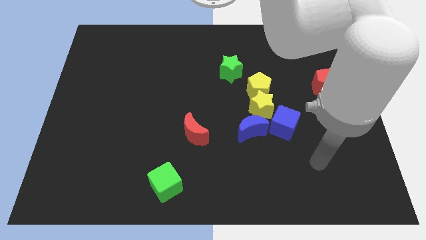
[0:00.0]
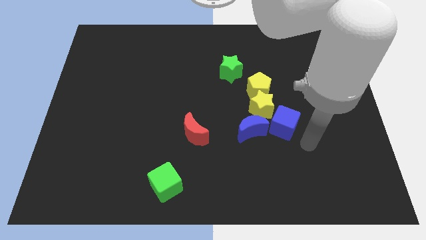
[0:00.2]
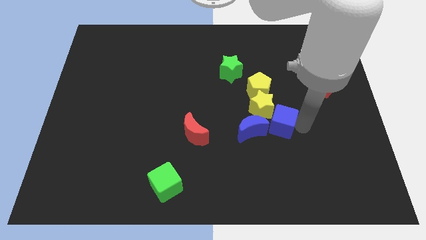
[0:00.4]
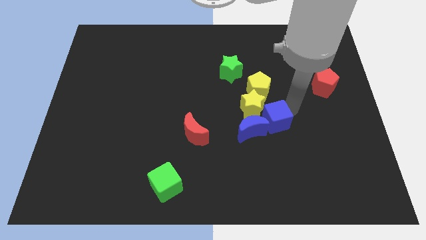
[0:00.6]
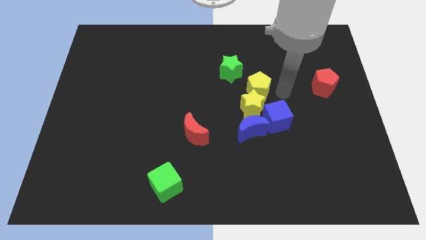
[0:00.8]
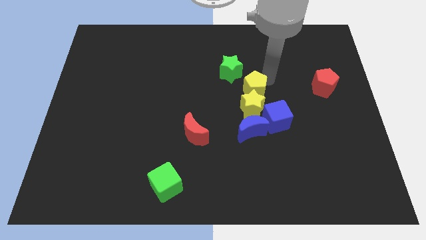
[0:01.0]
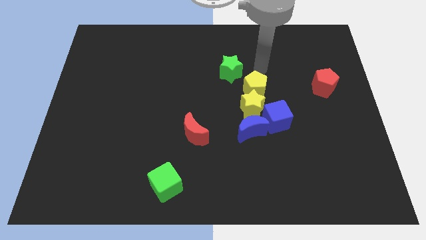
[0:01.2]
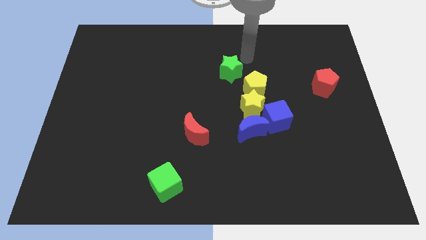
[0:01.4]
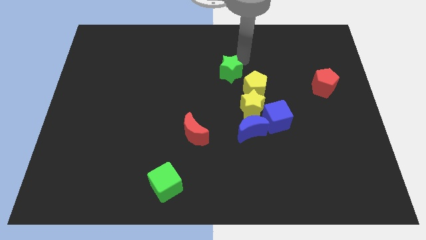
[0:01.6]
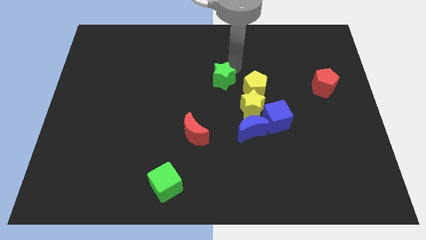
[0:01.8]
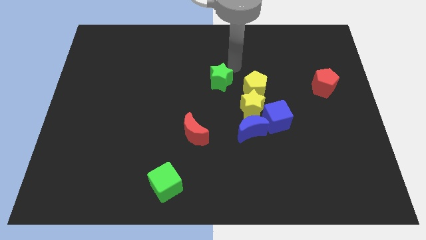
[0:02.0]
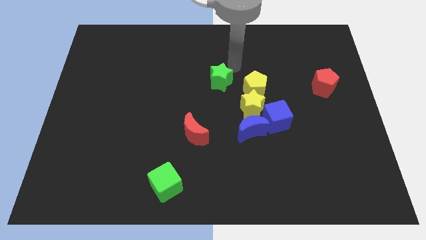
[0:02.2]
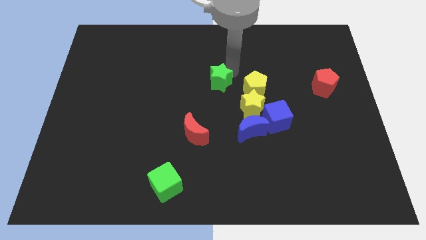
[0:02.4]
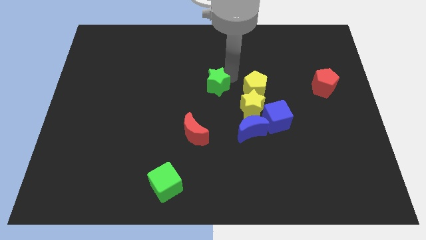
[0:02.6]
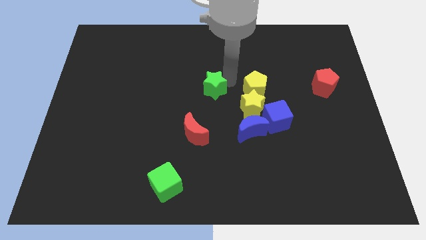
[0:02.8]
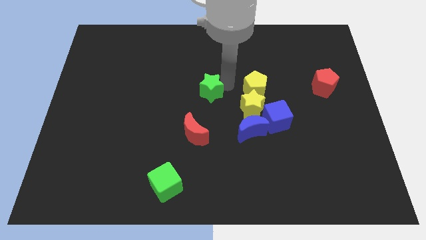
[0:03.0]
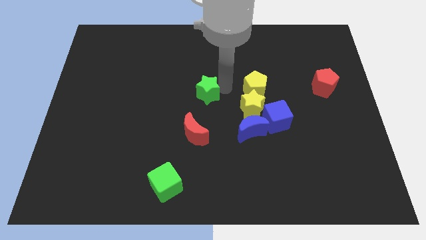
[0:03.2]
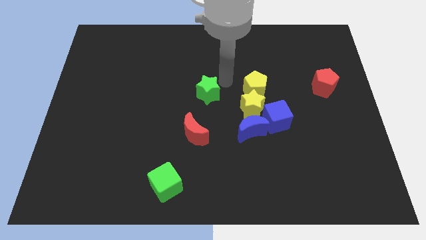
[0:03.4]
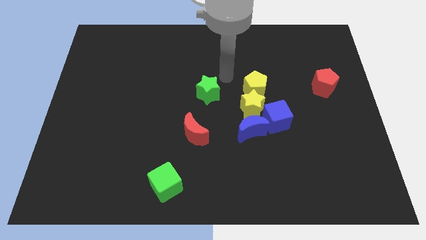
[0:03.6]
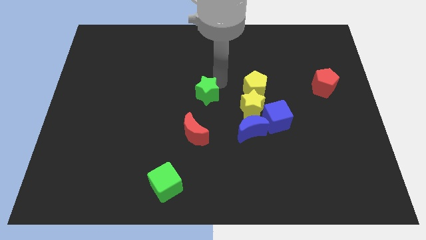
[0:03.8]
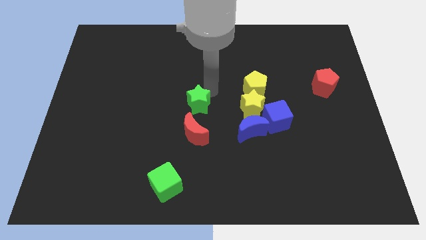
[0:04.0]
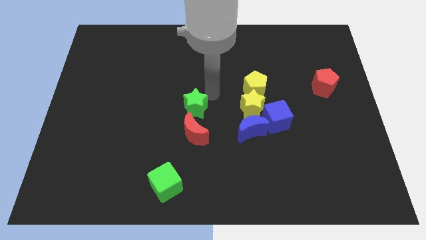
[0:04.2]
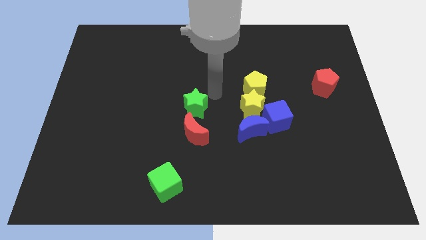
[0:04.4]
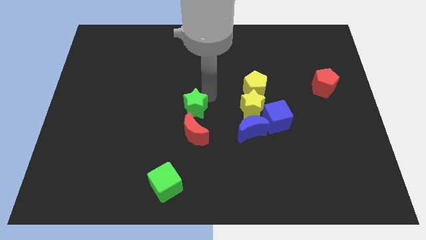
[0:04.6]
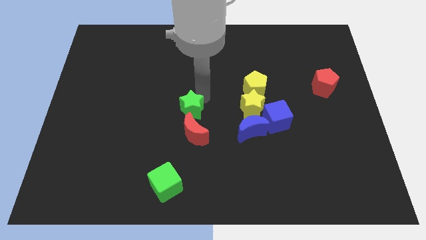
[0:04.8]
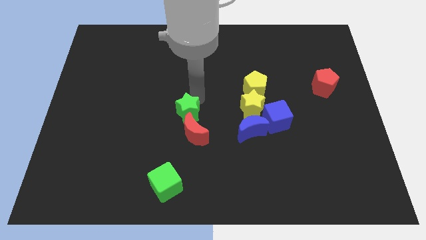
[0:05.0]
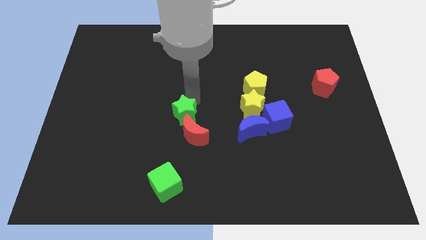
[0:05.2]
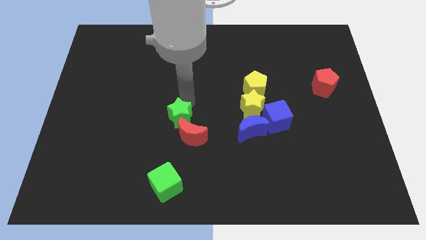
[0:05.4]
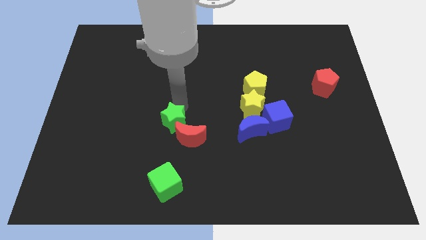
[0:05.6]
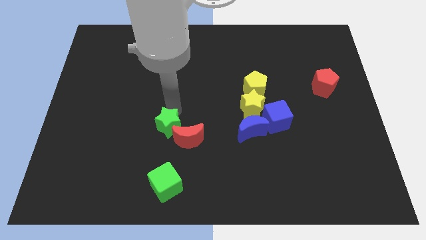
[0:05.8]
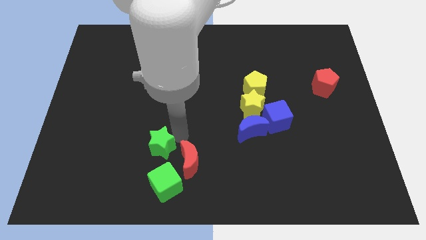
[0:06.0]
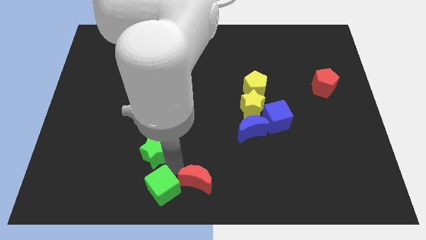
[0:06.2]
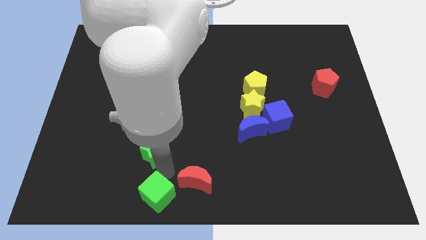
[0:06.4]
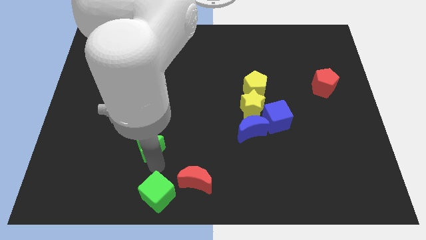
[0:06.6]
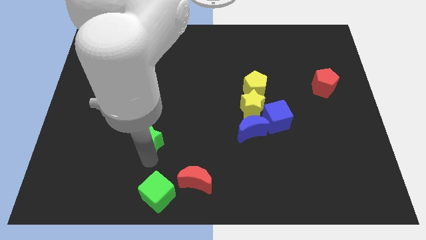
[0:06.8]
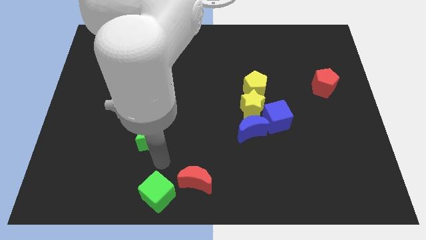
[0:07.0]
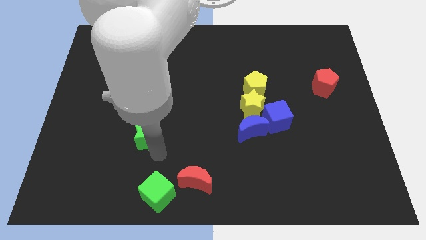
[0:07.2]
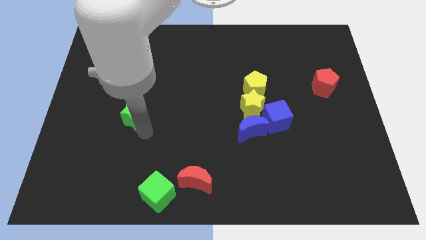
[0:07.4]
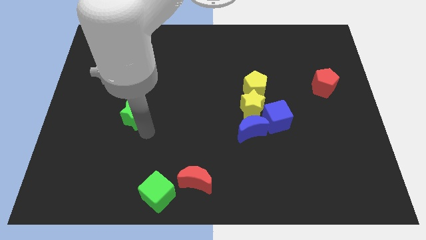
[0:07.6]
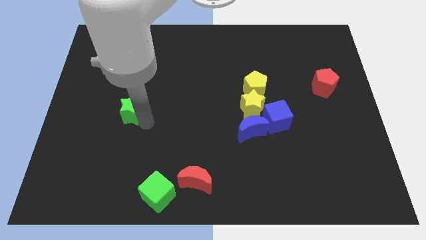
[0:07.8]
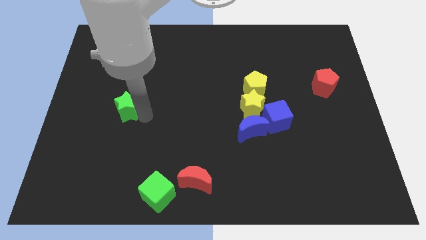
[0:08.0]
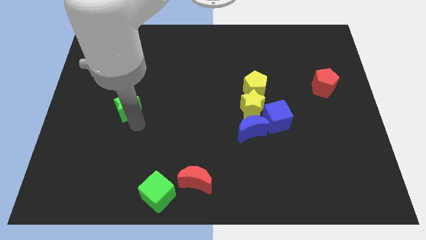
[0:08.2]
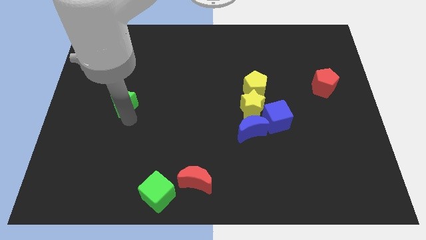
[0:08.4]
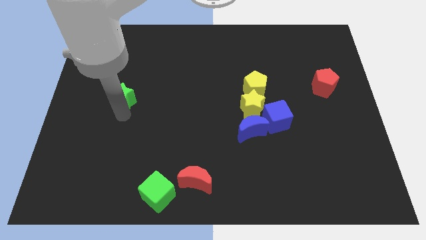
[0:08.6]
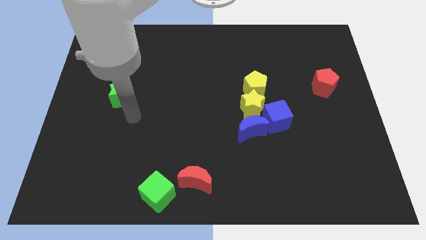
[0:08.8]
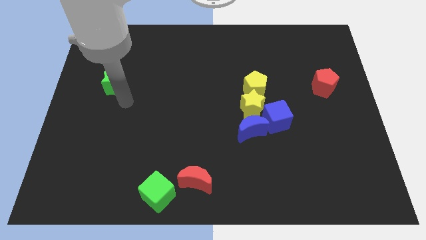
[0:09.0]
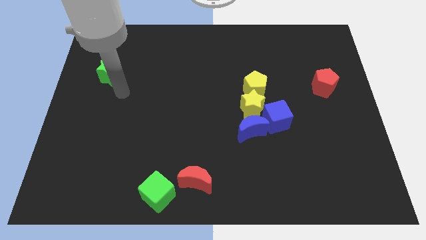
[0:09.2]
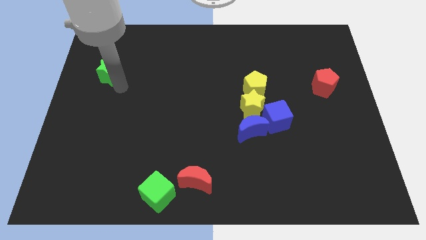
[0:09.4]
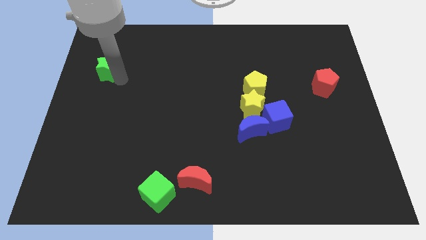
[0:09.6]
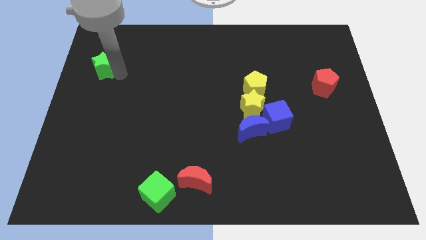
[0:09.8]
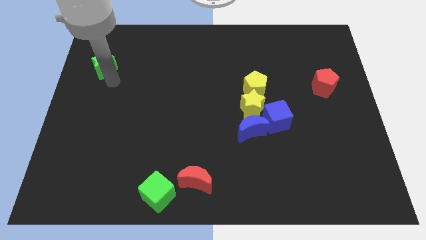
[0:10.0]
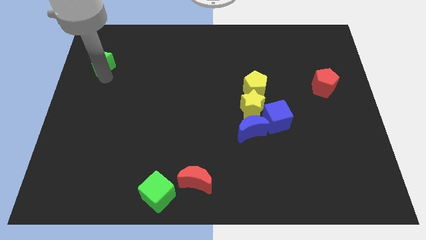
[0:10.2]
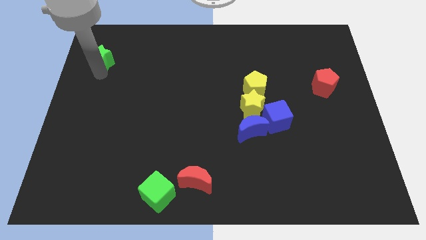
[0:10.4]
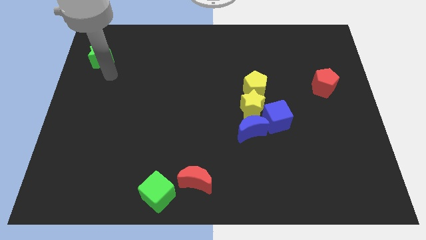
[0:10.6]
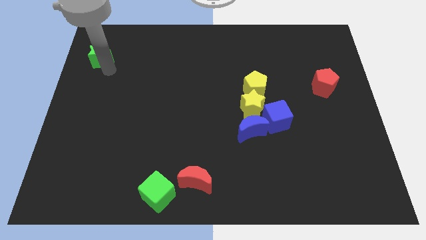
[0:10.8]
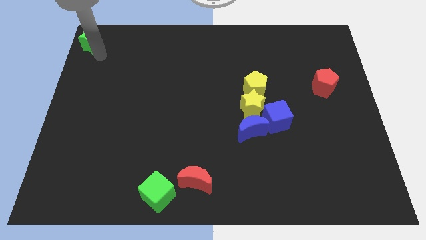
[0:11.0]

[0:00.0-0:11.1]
move the green star to the top left corner
